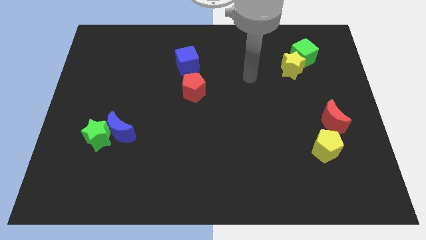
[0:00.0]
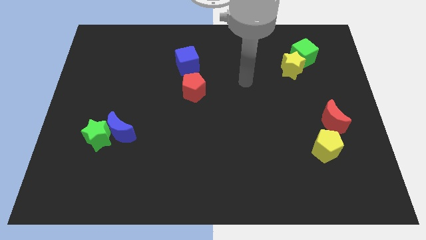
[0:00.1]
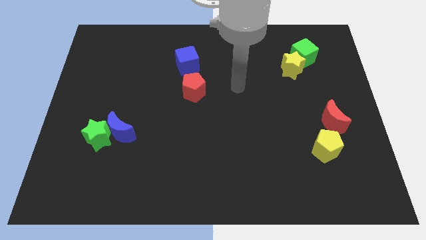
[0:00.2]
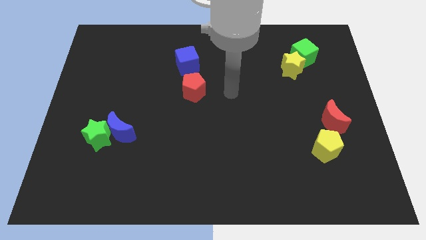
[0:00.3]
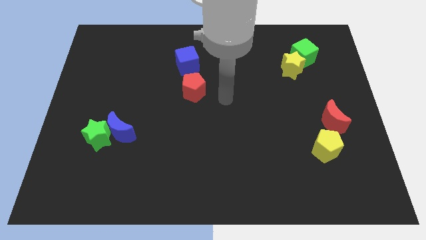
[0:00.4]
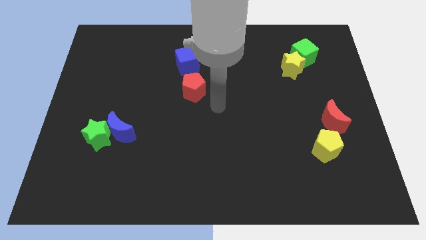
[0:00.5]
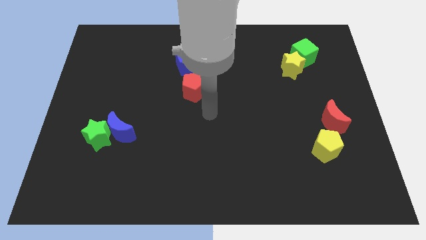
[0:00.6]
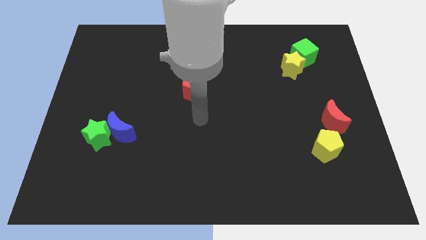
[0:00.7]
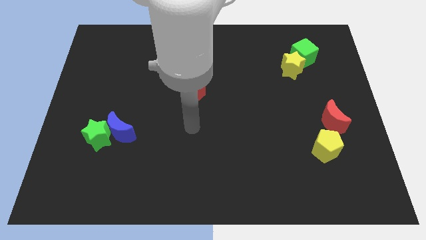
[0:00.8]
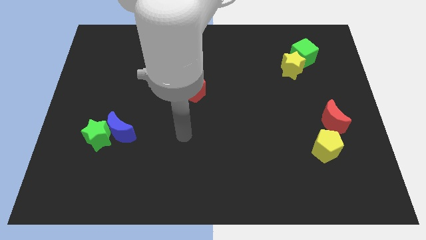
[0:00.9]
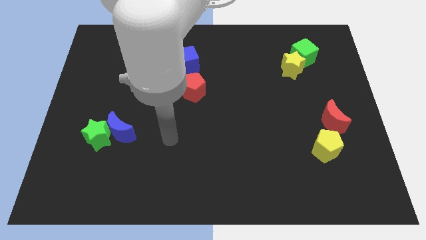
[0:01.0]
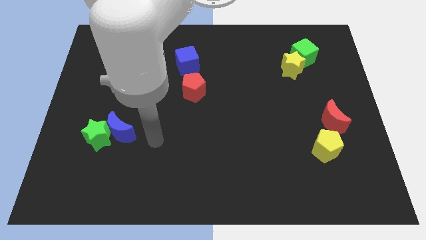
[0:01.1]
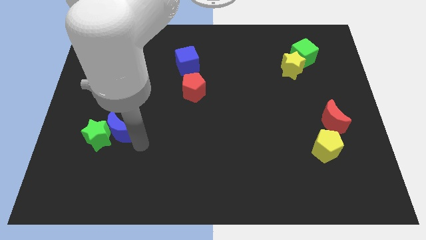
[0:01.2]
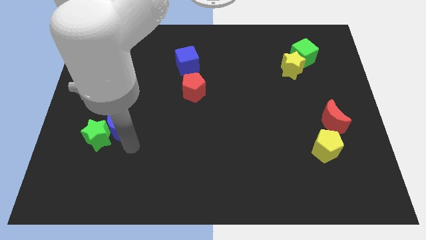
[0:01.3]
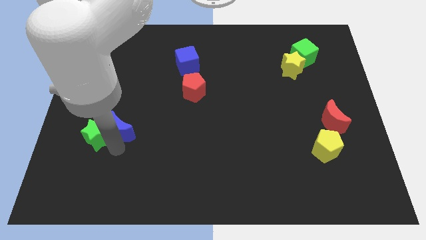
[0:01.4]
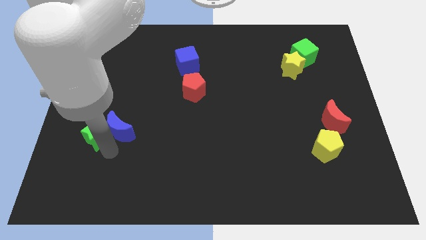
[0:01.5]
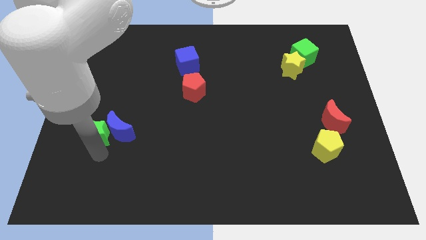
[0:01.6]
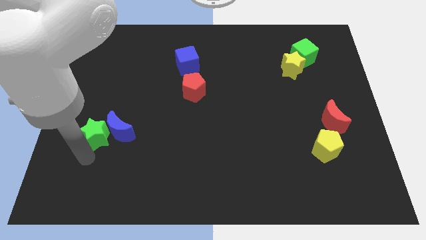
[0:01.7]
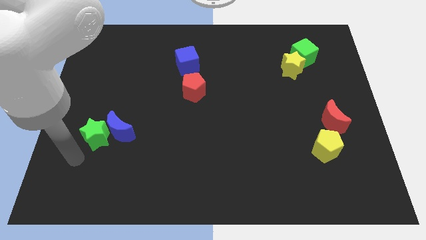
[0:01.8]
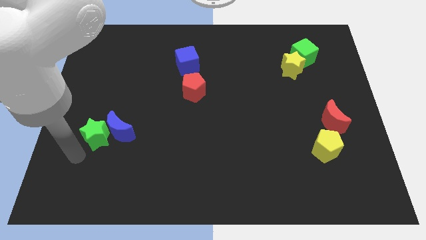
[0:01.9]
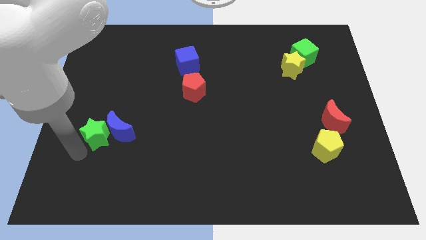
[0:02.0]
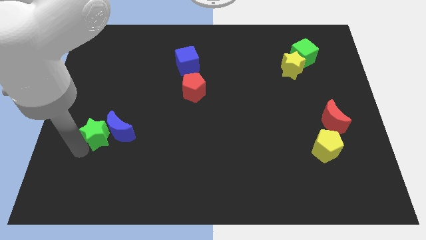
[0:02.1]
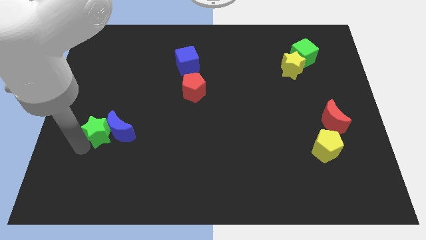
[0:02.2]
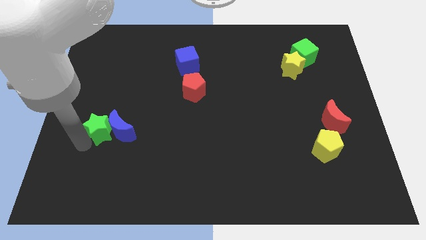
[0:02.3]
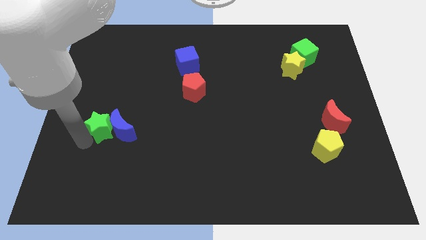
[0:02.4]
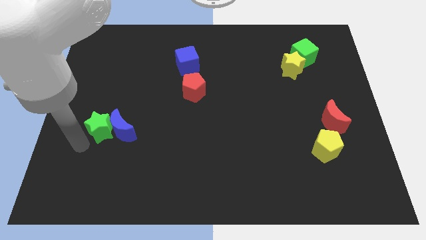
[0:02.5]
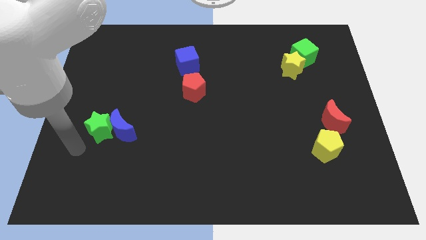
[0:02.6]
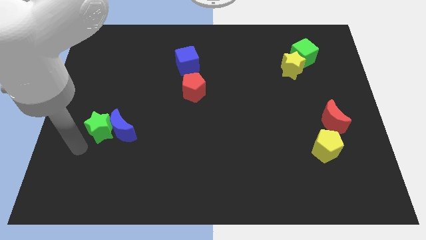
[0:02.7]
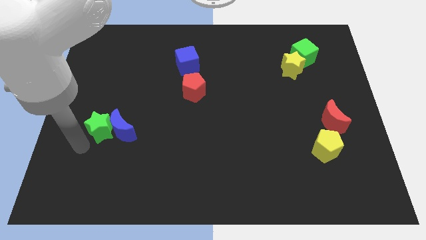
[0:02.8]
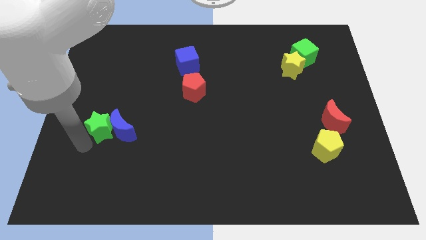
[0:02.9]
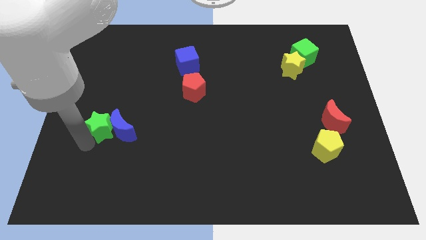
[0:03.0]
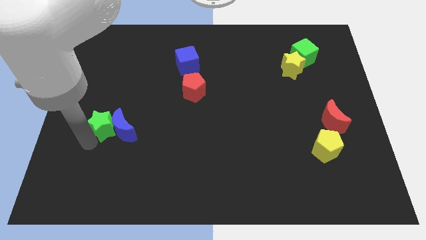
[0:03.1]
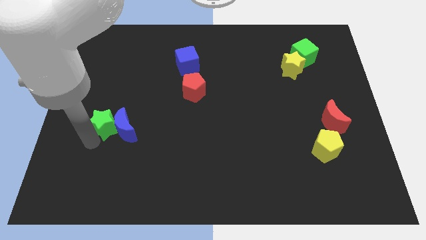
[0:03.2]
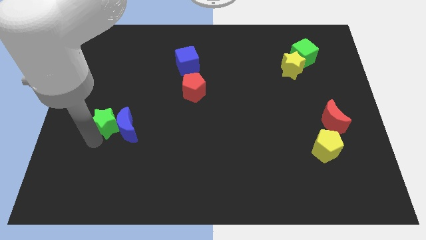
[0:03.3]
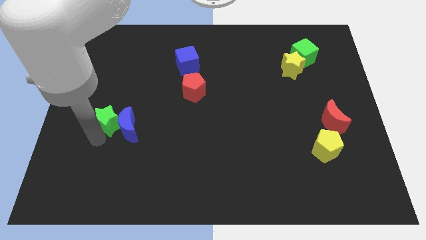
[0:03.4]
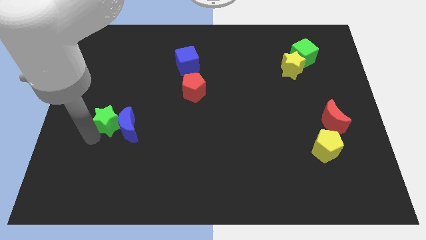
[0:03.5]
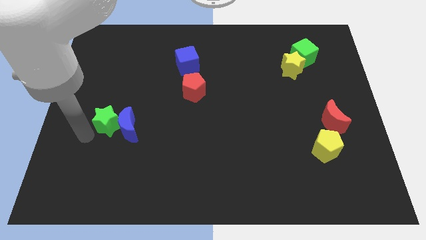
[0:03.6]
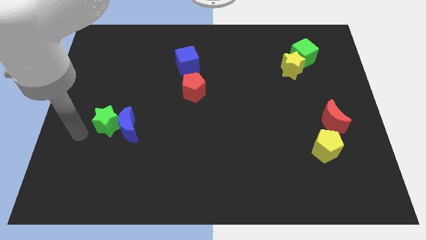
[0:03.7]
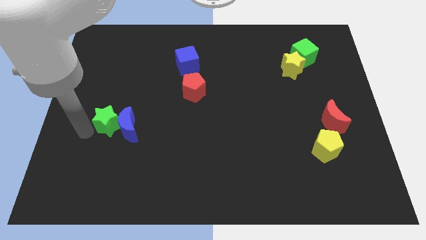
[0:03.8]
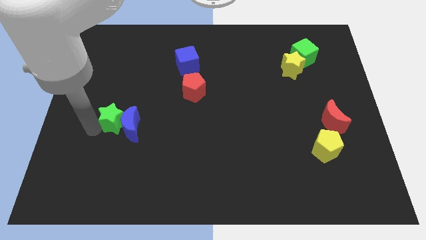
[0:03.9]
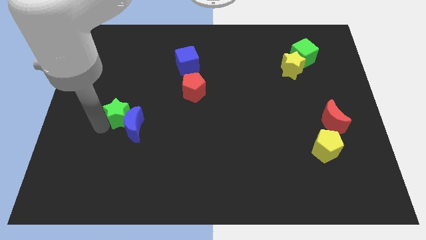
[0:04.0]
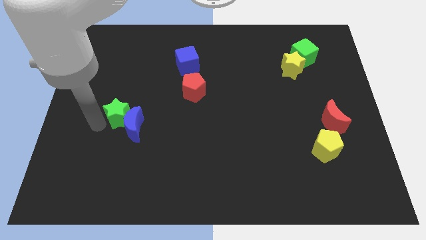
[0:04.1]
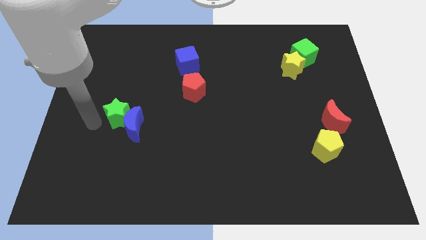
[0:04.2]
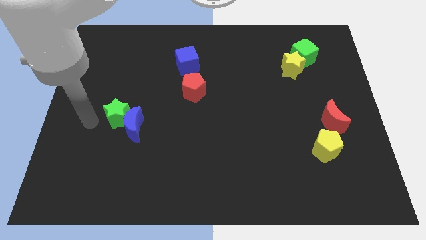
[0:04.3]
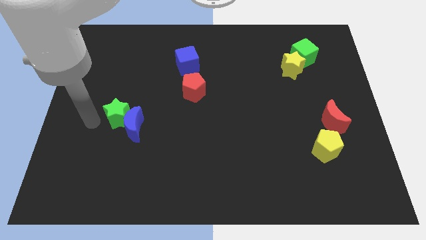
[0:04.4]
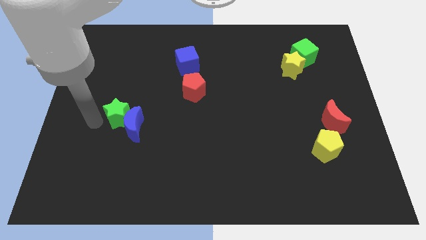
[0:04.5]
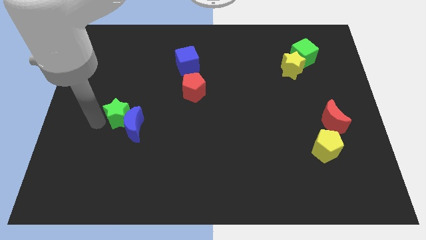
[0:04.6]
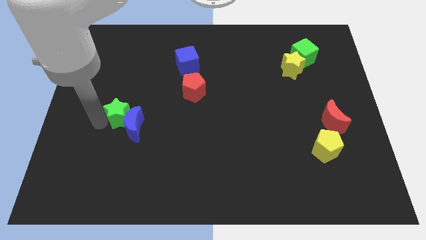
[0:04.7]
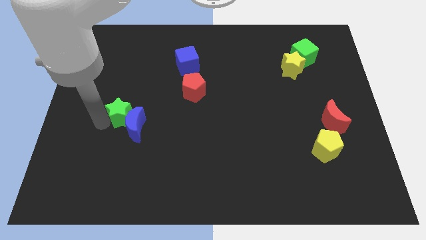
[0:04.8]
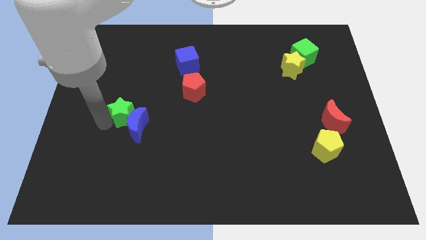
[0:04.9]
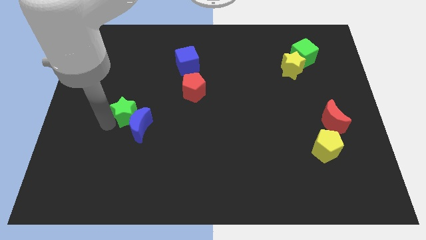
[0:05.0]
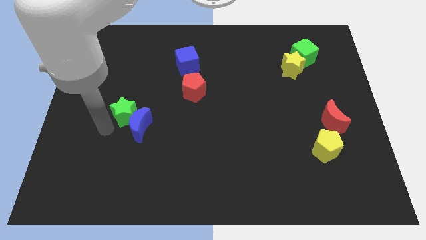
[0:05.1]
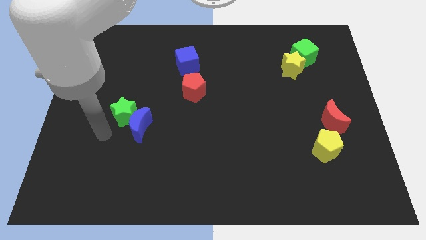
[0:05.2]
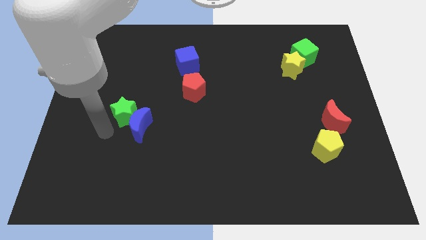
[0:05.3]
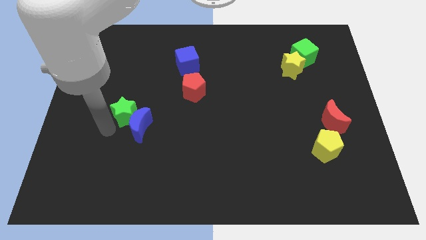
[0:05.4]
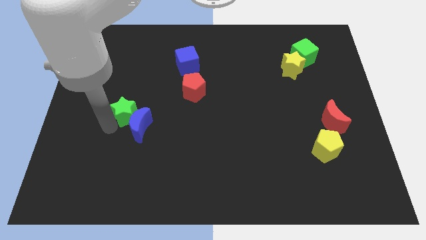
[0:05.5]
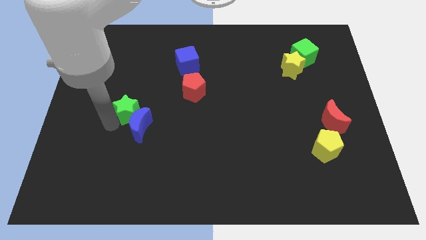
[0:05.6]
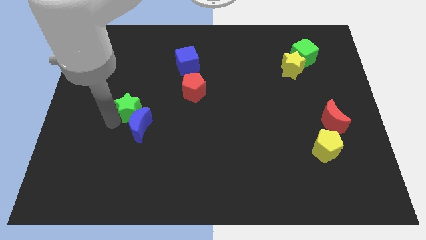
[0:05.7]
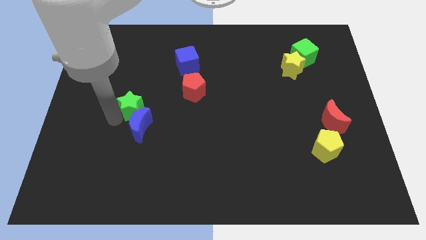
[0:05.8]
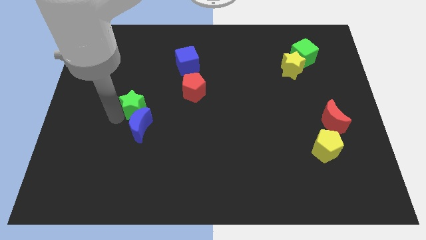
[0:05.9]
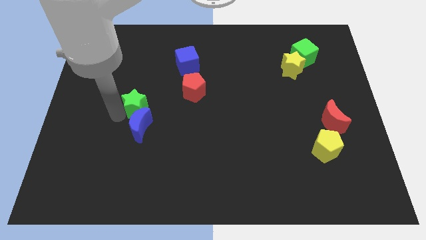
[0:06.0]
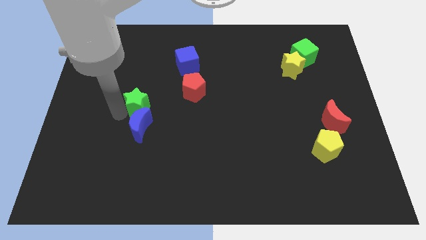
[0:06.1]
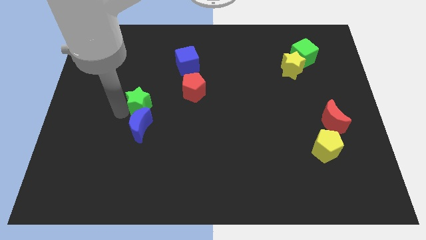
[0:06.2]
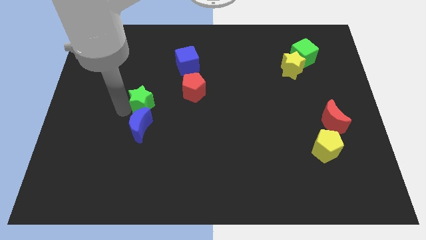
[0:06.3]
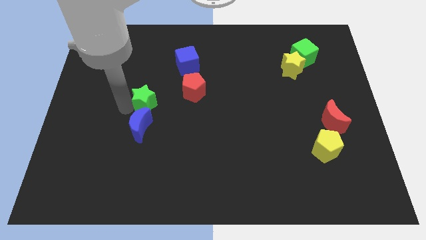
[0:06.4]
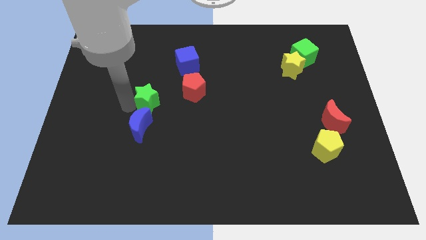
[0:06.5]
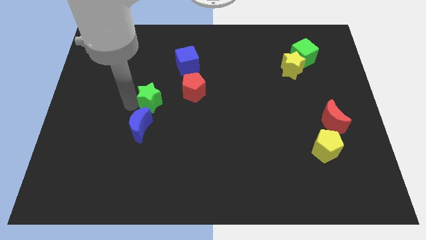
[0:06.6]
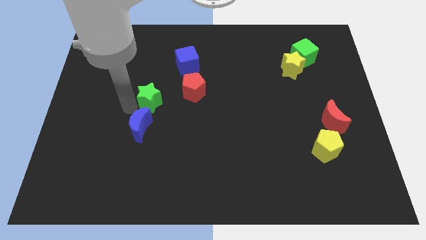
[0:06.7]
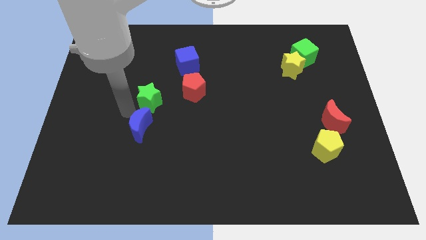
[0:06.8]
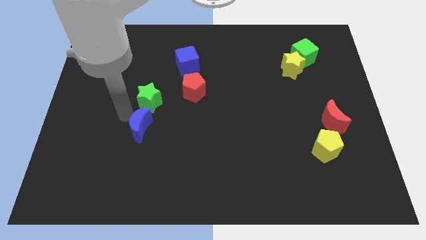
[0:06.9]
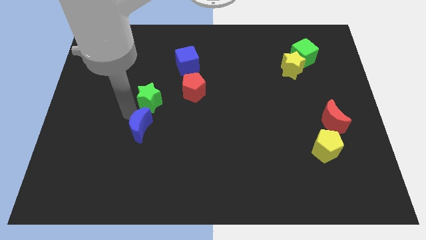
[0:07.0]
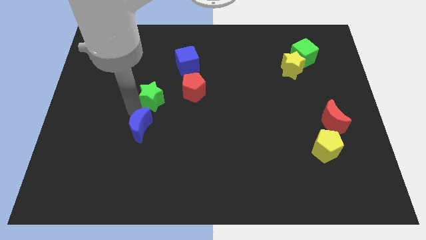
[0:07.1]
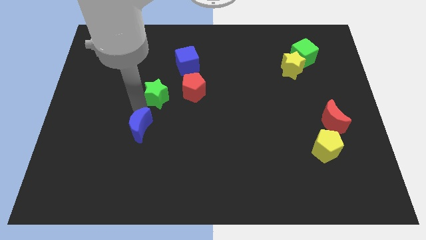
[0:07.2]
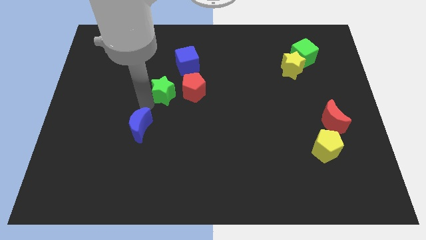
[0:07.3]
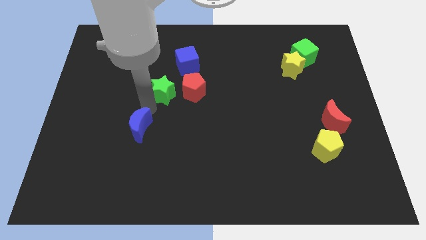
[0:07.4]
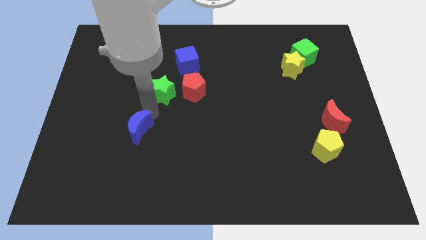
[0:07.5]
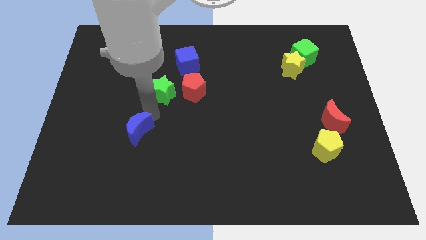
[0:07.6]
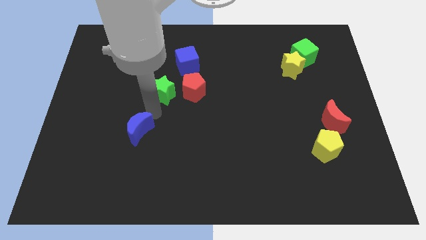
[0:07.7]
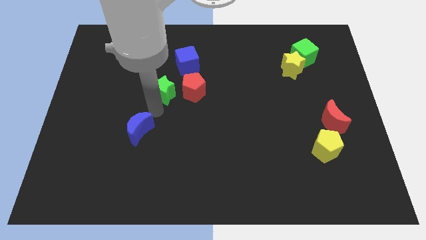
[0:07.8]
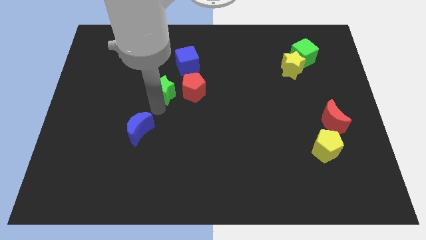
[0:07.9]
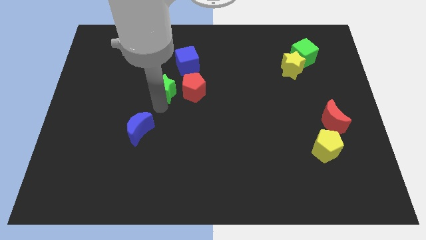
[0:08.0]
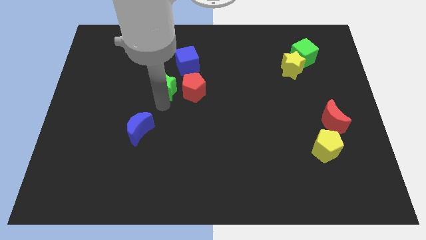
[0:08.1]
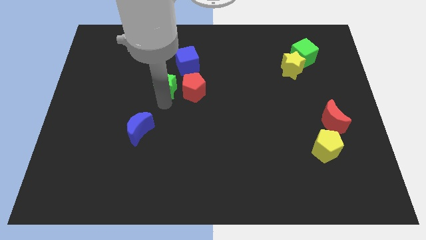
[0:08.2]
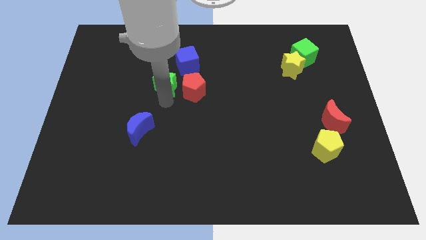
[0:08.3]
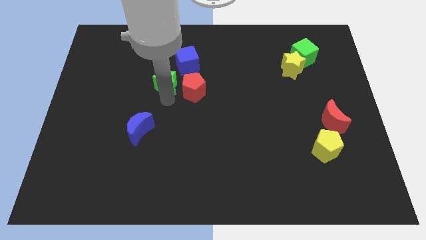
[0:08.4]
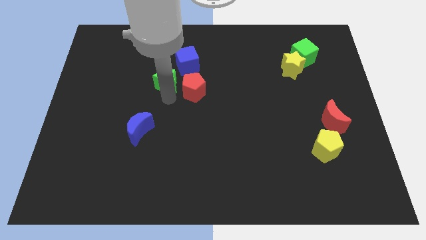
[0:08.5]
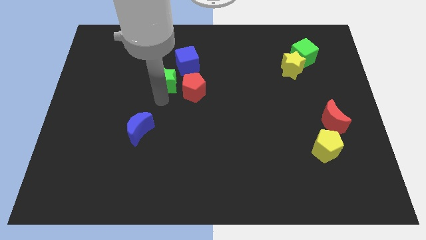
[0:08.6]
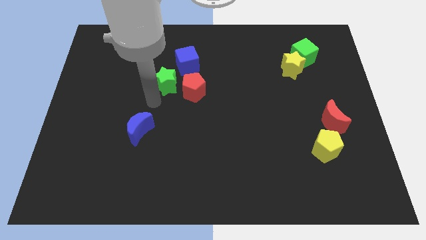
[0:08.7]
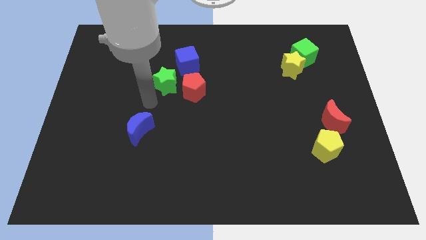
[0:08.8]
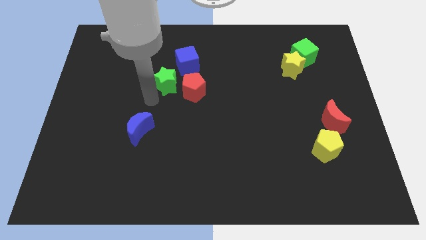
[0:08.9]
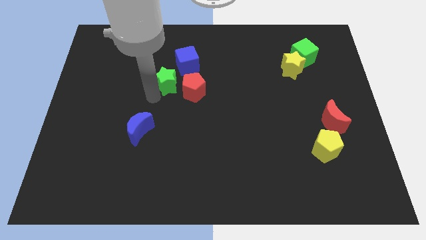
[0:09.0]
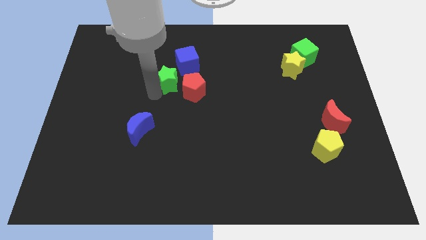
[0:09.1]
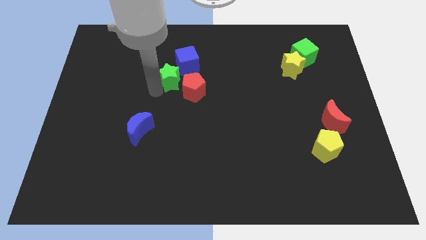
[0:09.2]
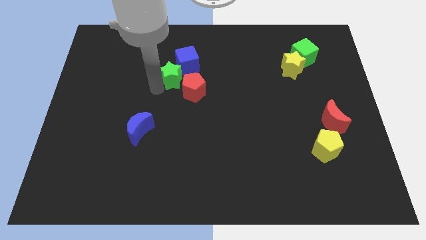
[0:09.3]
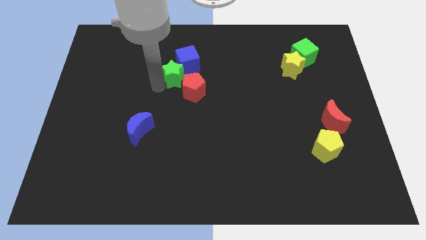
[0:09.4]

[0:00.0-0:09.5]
put the green star to the blue cube
